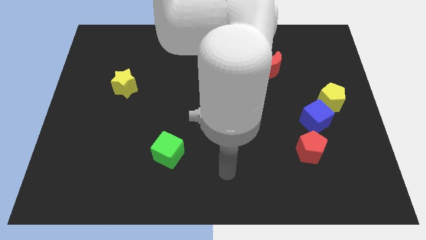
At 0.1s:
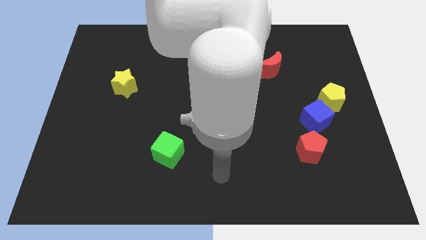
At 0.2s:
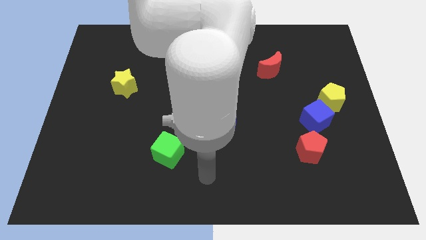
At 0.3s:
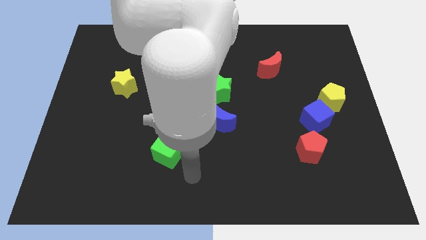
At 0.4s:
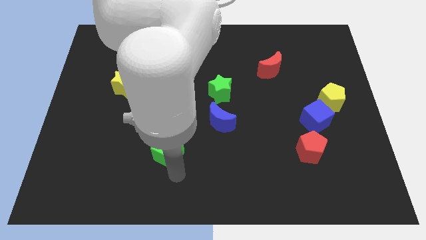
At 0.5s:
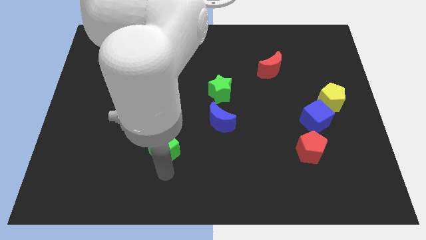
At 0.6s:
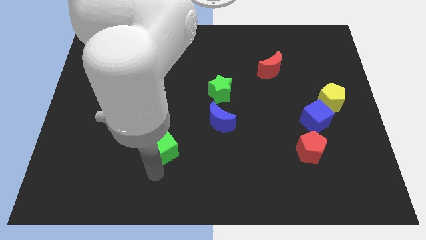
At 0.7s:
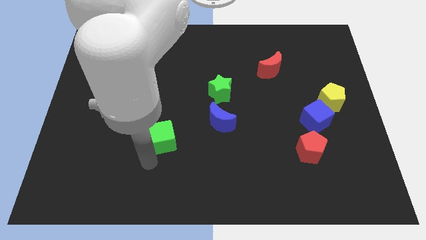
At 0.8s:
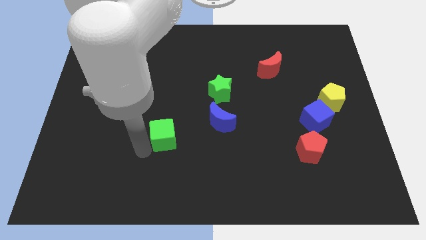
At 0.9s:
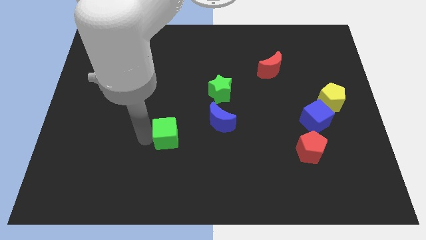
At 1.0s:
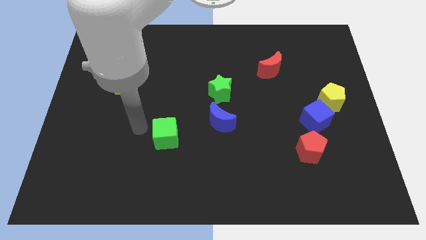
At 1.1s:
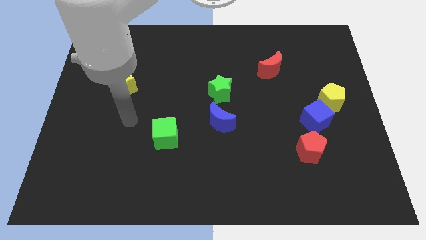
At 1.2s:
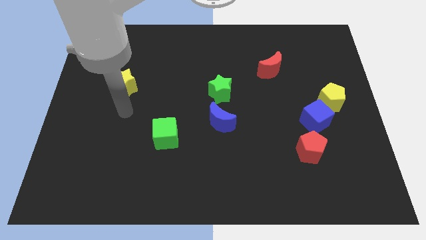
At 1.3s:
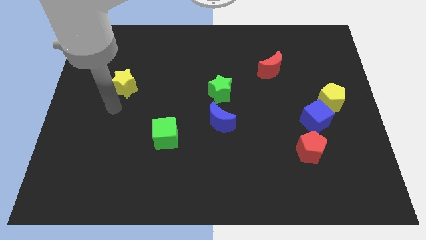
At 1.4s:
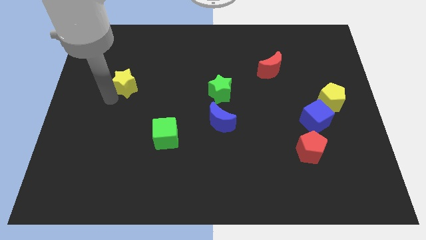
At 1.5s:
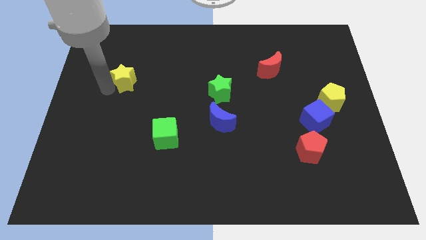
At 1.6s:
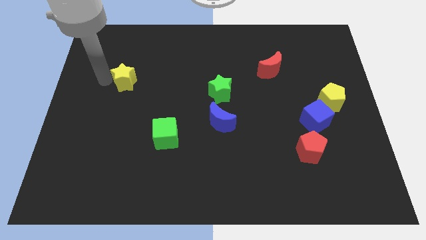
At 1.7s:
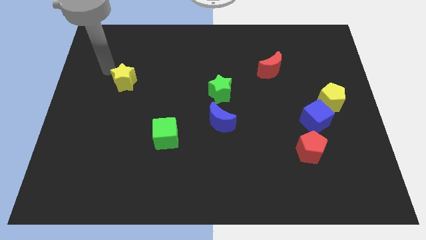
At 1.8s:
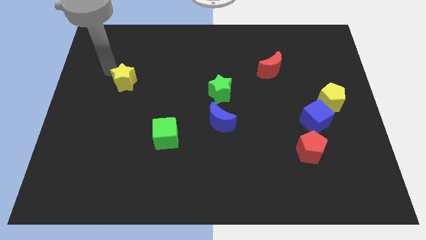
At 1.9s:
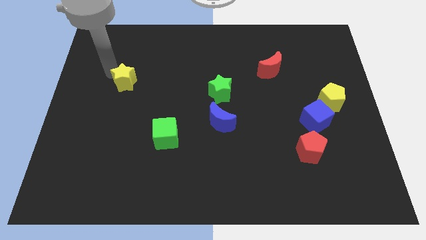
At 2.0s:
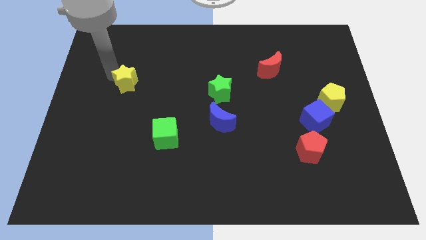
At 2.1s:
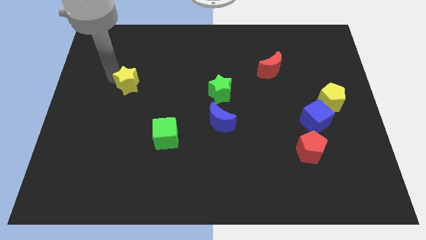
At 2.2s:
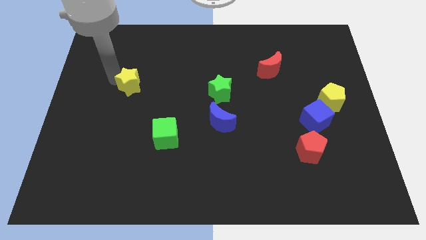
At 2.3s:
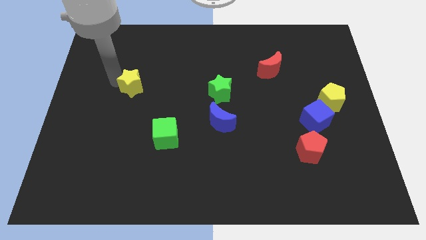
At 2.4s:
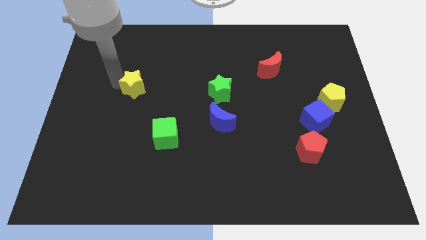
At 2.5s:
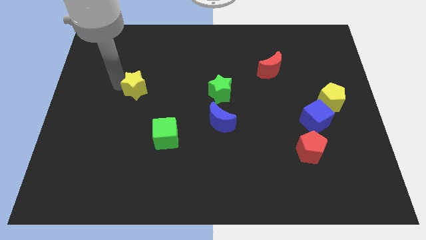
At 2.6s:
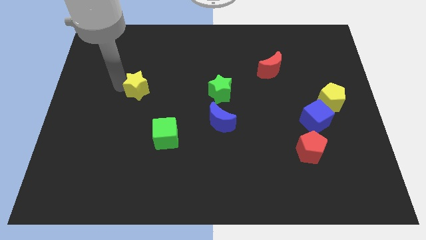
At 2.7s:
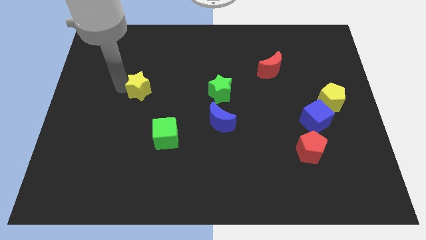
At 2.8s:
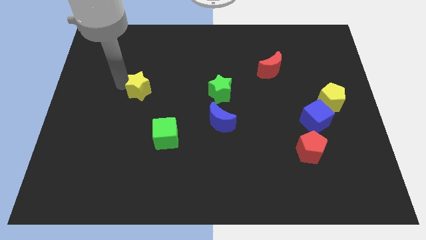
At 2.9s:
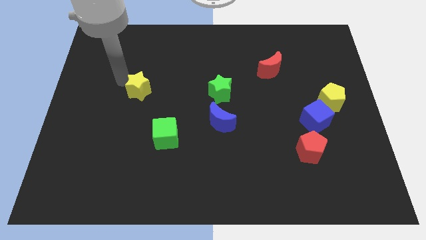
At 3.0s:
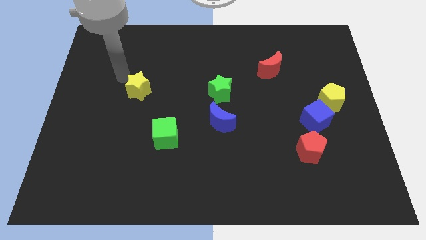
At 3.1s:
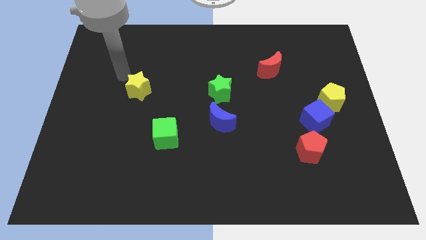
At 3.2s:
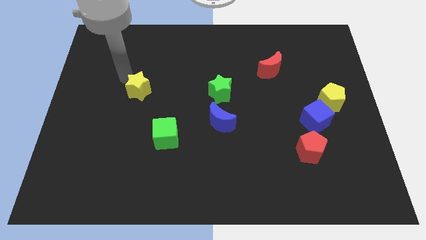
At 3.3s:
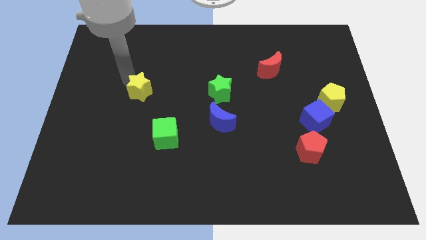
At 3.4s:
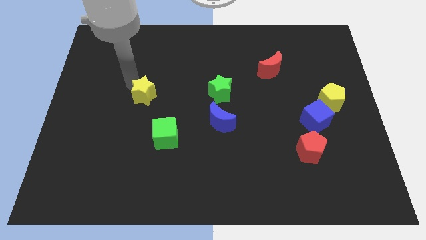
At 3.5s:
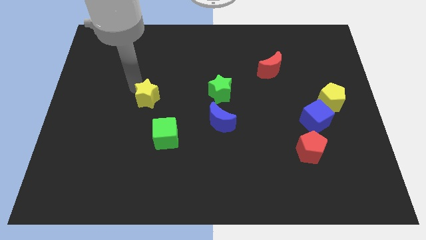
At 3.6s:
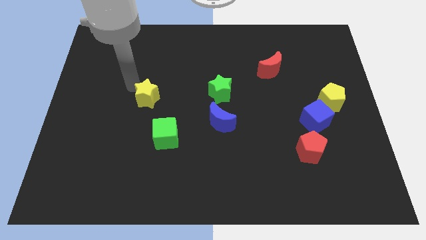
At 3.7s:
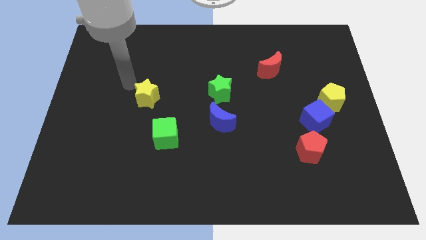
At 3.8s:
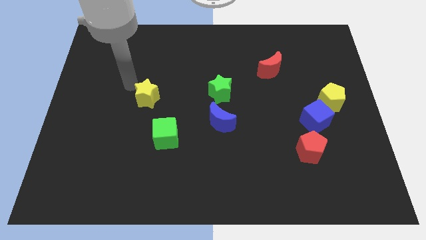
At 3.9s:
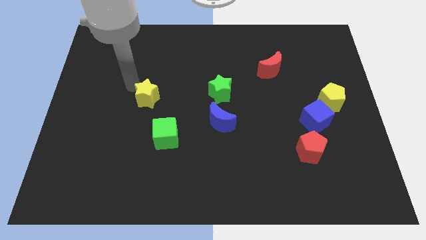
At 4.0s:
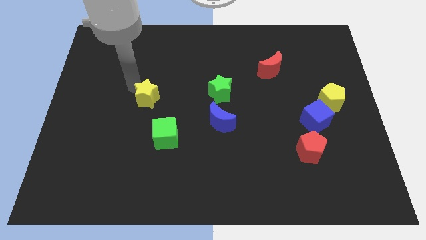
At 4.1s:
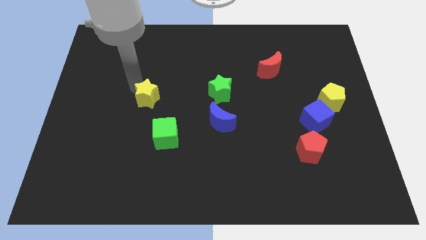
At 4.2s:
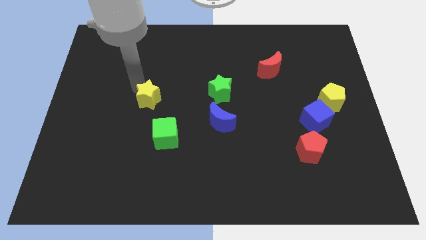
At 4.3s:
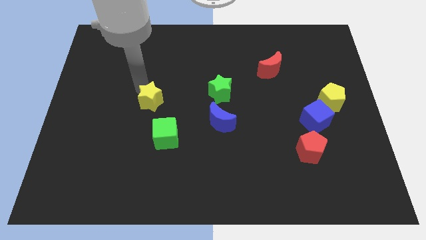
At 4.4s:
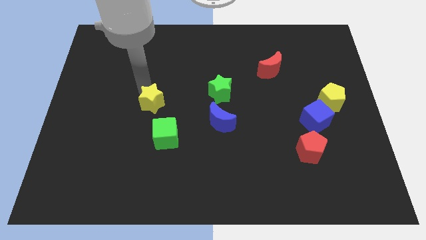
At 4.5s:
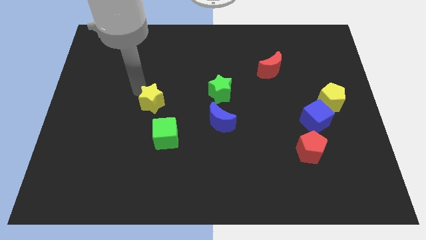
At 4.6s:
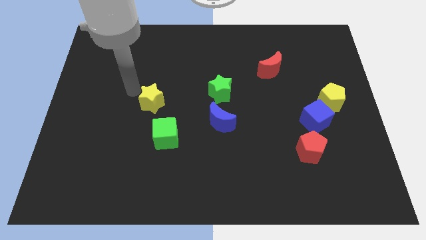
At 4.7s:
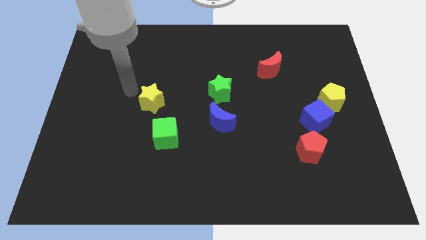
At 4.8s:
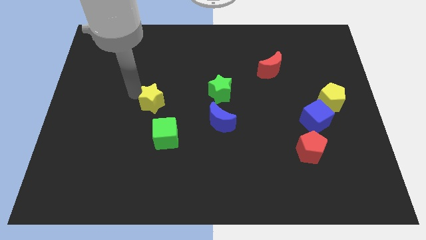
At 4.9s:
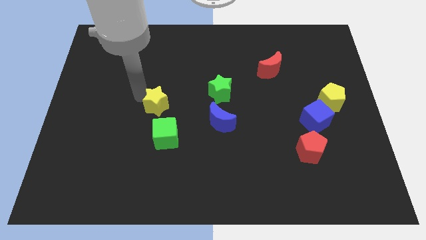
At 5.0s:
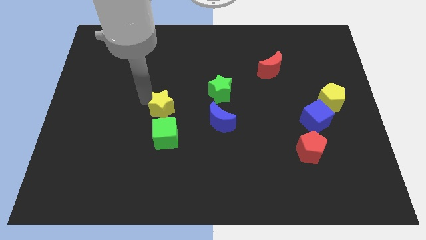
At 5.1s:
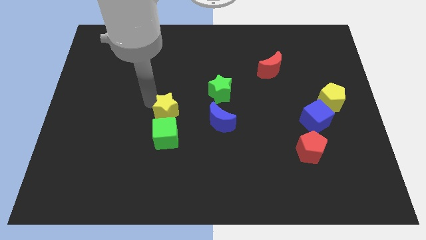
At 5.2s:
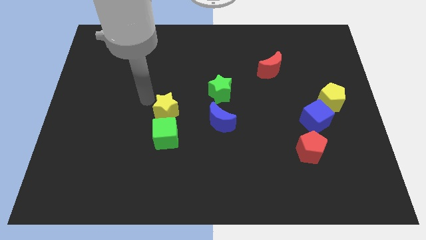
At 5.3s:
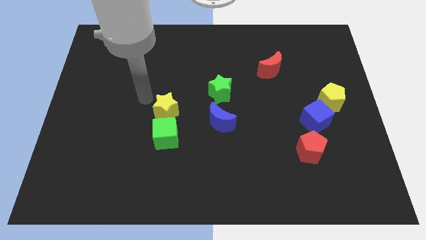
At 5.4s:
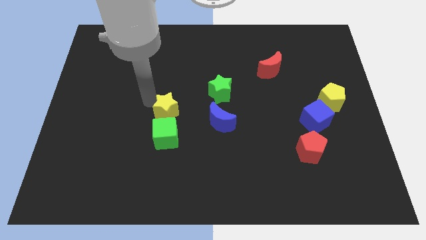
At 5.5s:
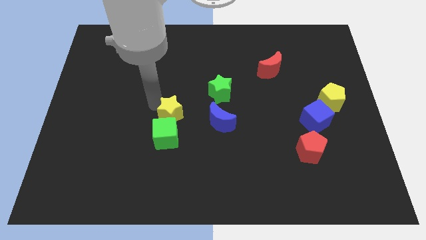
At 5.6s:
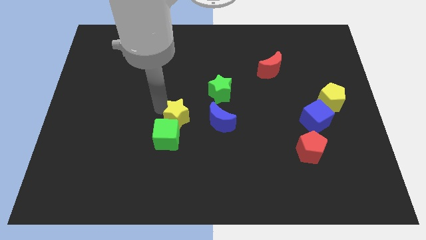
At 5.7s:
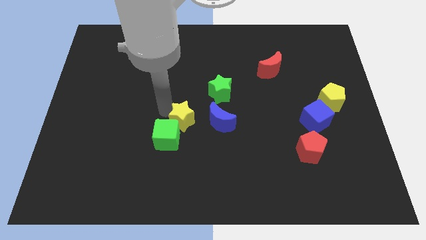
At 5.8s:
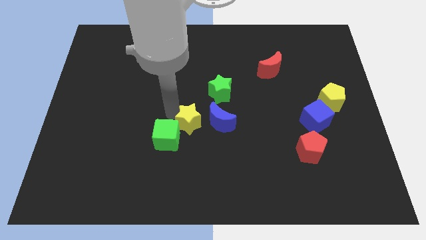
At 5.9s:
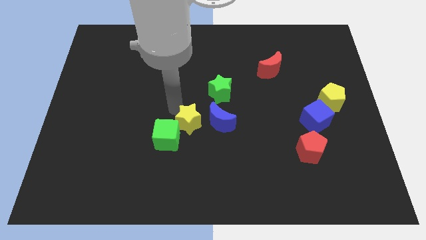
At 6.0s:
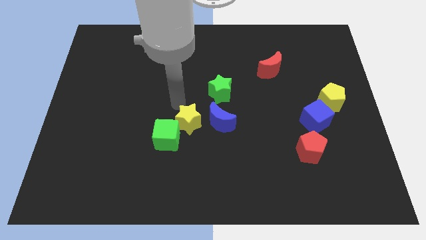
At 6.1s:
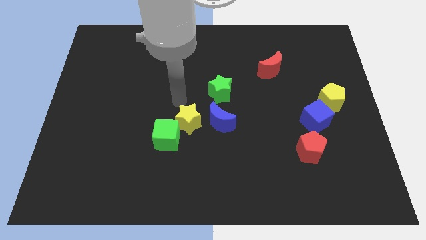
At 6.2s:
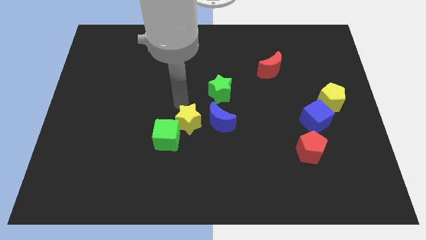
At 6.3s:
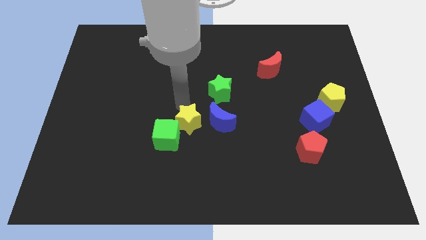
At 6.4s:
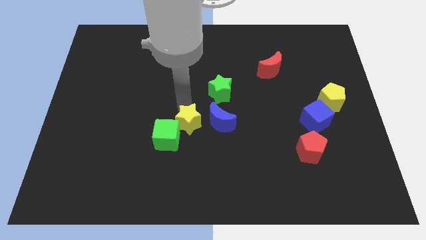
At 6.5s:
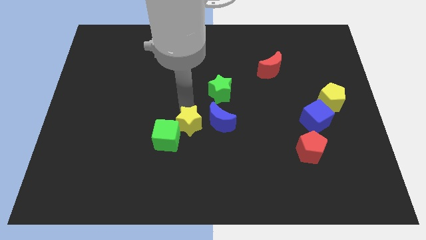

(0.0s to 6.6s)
push the yellow star to the bottom left side of the blue moon

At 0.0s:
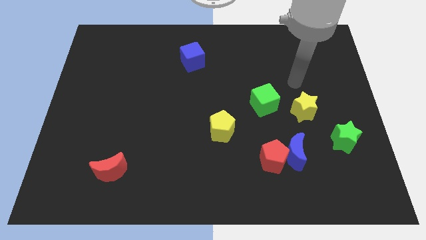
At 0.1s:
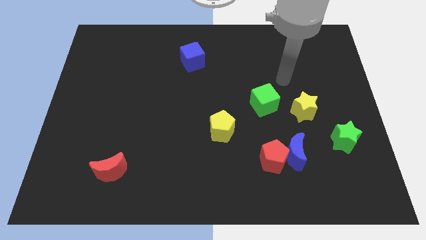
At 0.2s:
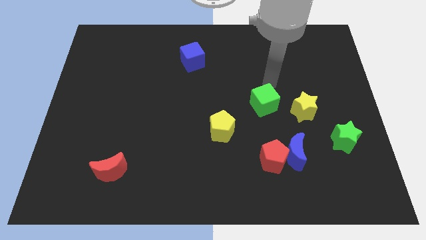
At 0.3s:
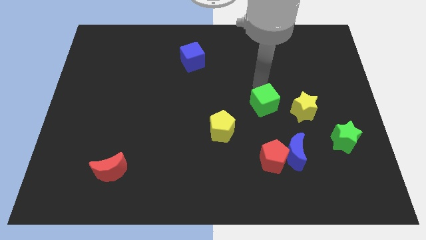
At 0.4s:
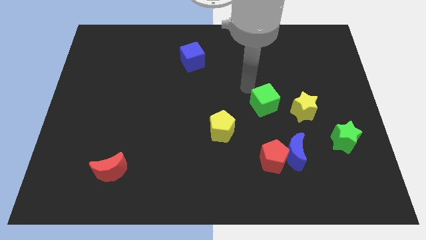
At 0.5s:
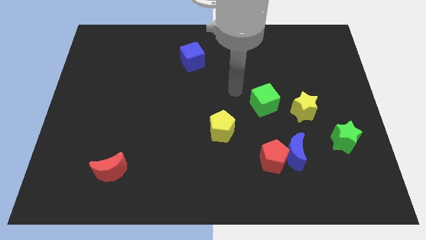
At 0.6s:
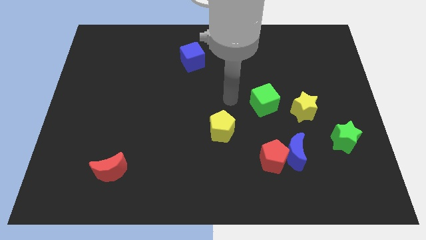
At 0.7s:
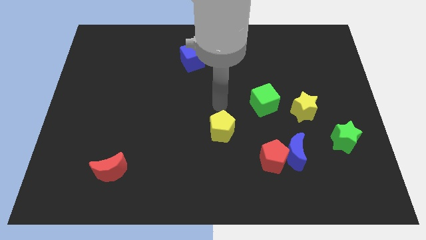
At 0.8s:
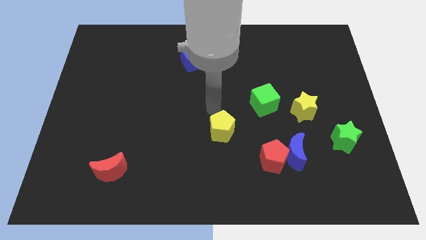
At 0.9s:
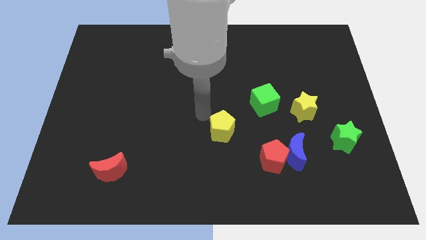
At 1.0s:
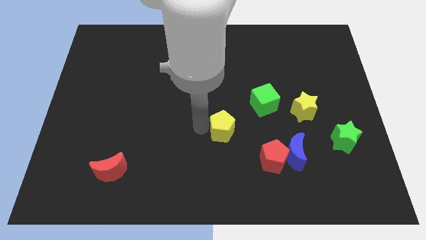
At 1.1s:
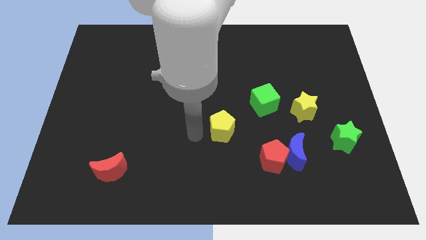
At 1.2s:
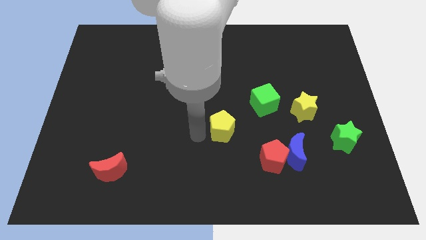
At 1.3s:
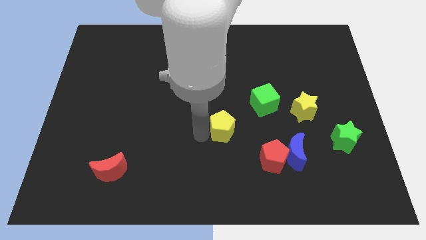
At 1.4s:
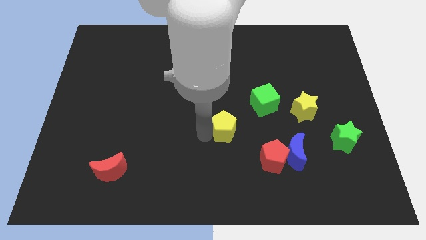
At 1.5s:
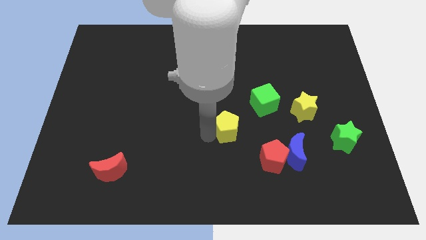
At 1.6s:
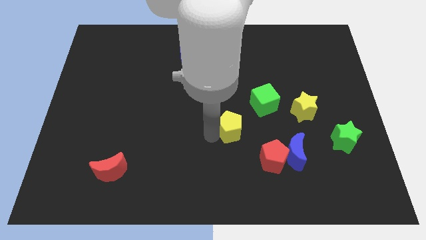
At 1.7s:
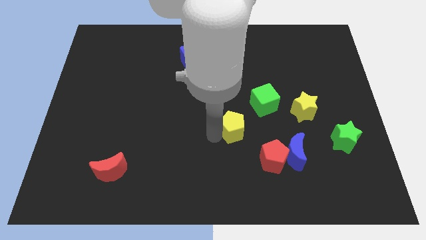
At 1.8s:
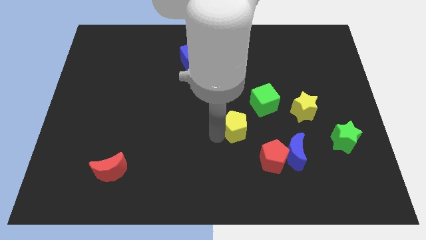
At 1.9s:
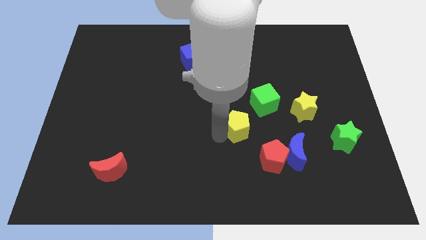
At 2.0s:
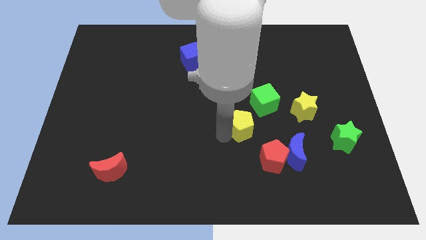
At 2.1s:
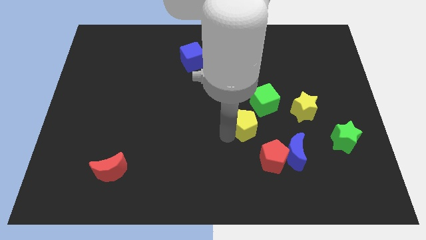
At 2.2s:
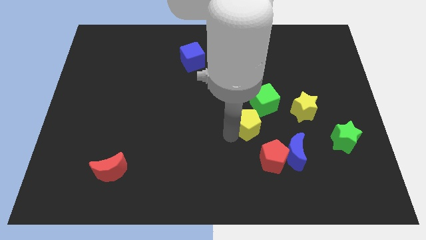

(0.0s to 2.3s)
move the yellow pentagon to the top of the red pentagon
